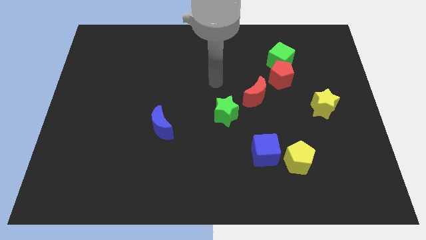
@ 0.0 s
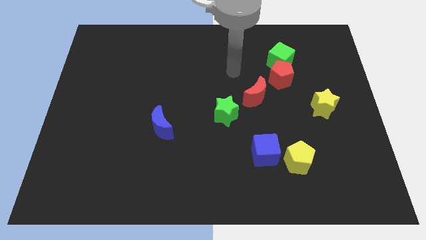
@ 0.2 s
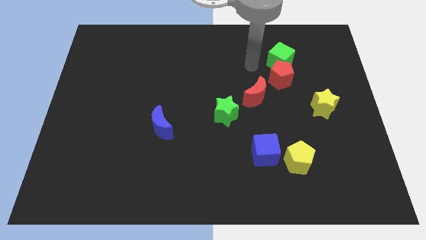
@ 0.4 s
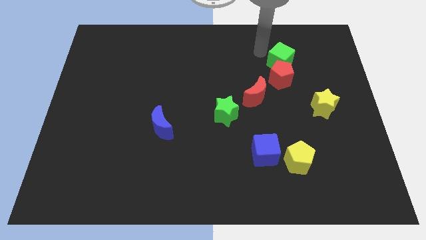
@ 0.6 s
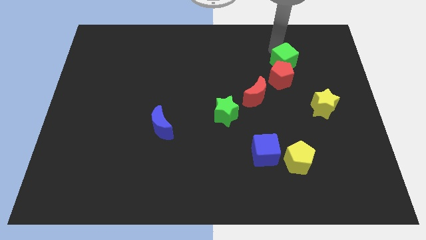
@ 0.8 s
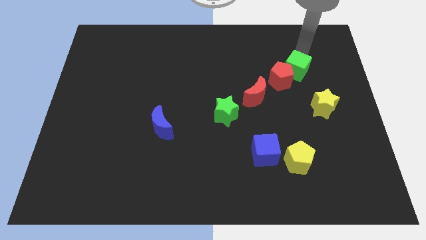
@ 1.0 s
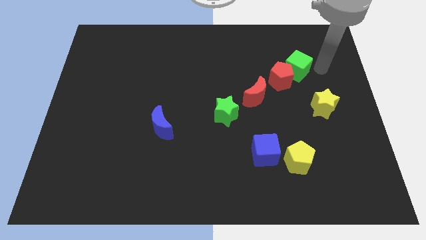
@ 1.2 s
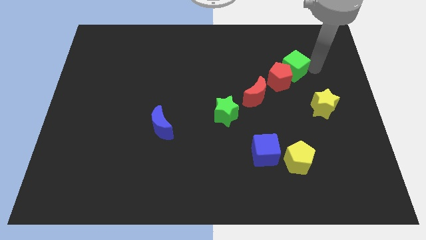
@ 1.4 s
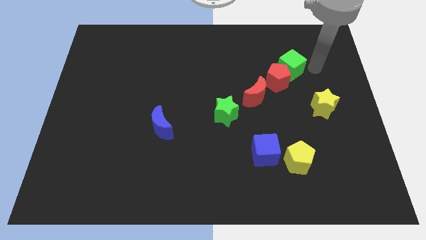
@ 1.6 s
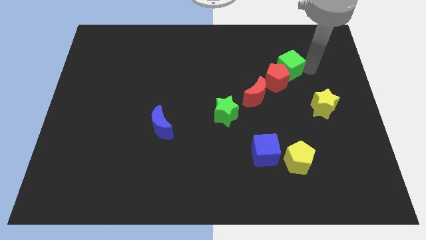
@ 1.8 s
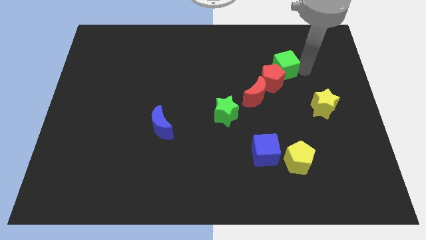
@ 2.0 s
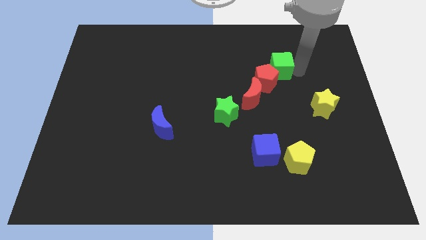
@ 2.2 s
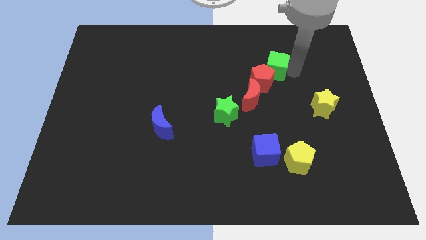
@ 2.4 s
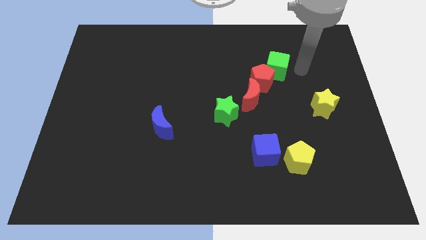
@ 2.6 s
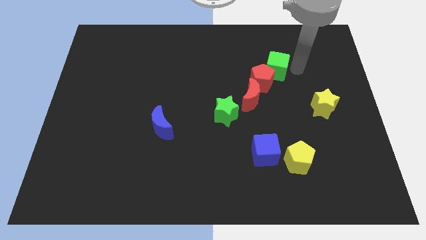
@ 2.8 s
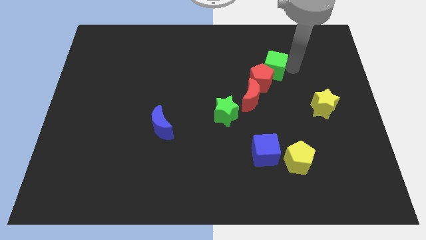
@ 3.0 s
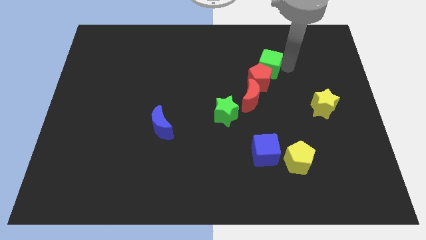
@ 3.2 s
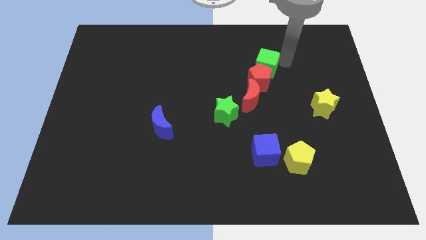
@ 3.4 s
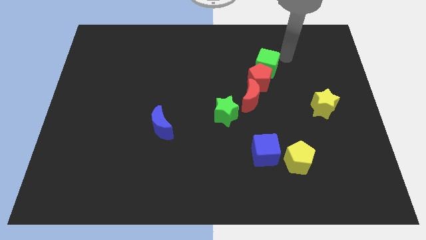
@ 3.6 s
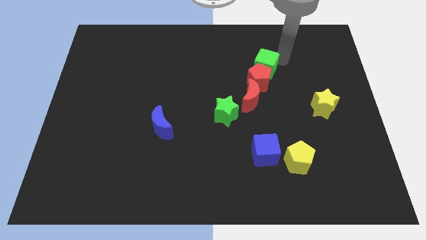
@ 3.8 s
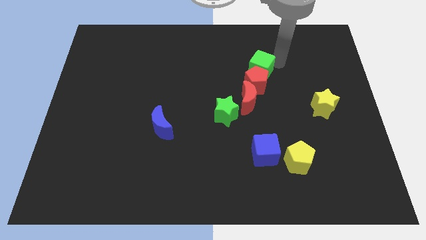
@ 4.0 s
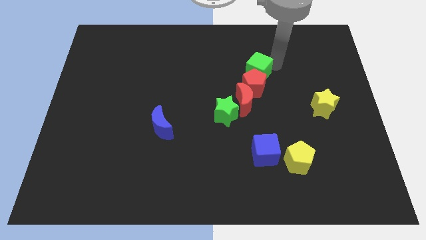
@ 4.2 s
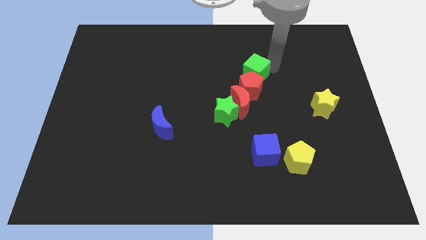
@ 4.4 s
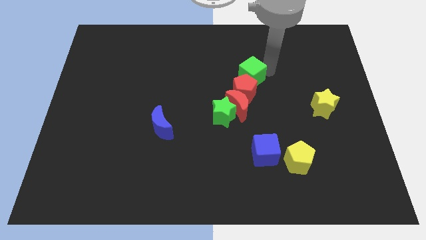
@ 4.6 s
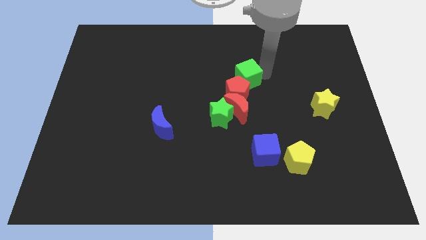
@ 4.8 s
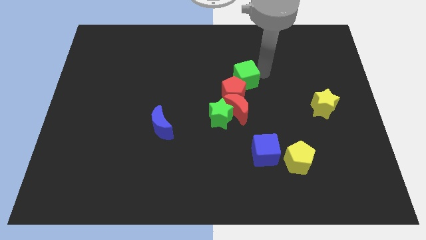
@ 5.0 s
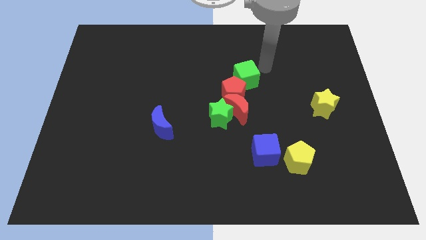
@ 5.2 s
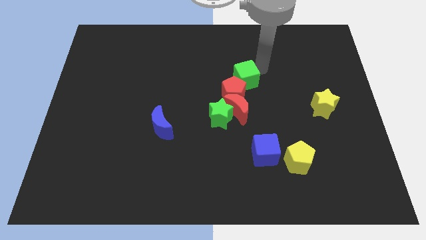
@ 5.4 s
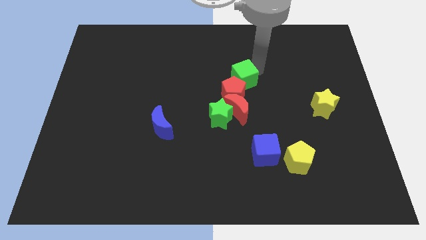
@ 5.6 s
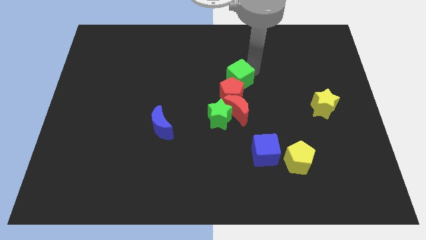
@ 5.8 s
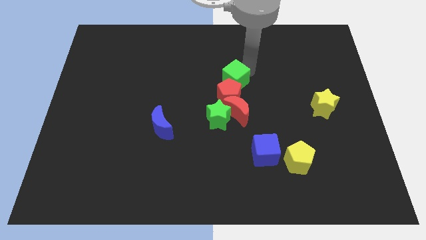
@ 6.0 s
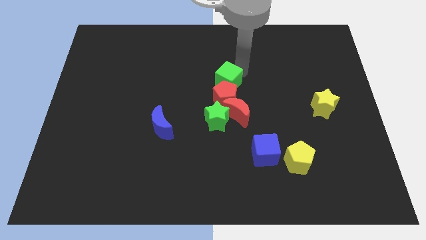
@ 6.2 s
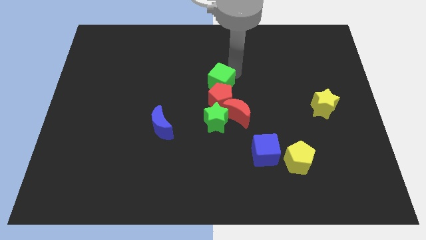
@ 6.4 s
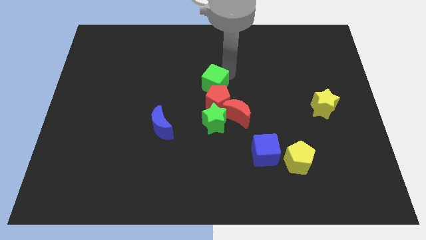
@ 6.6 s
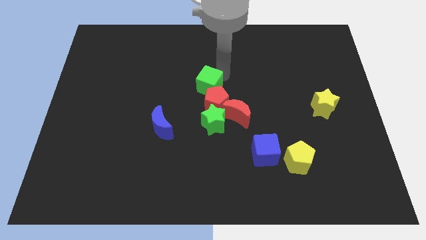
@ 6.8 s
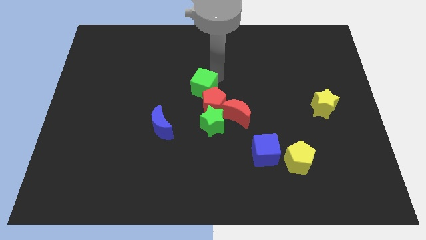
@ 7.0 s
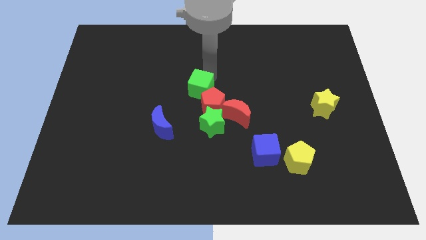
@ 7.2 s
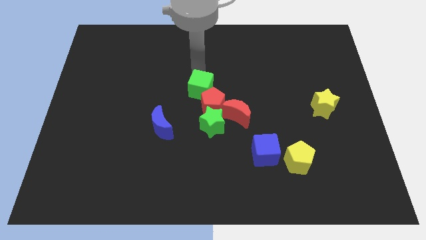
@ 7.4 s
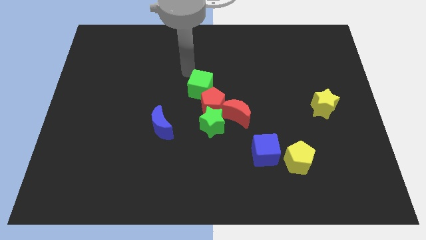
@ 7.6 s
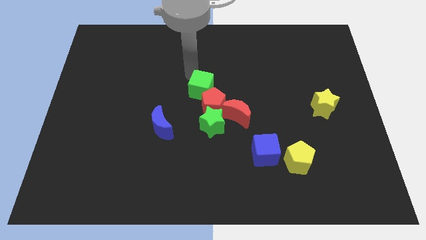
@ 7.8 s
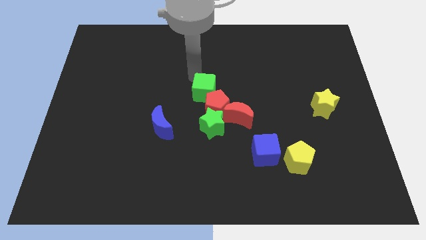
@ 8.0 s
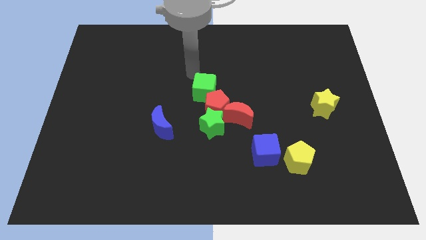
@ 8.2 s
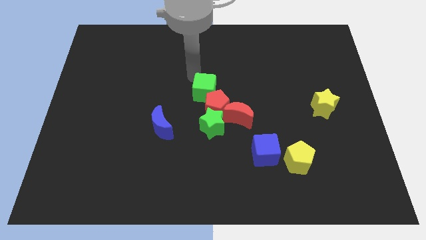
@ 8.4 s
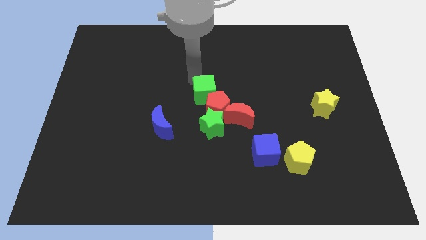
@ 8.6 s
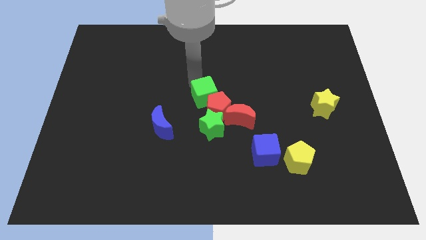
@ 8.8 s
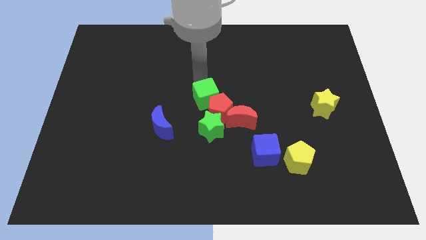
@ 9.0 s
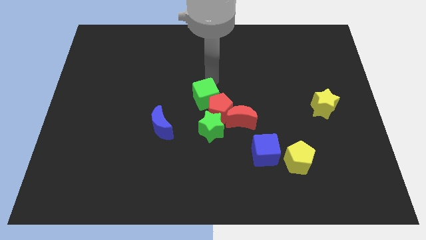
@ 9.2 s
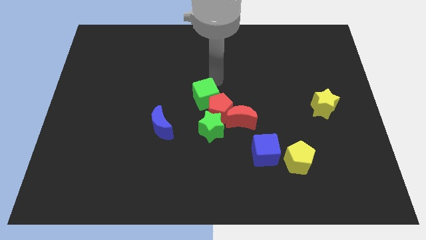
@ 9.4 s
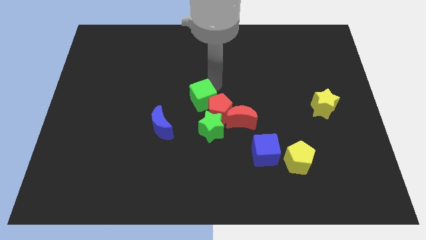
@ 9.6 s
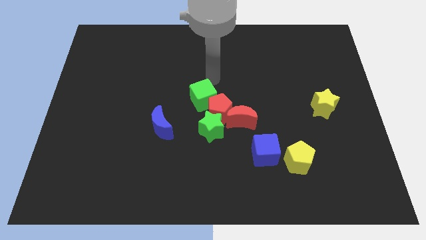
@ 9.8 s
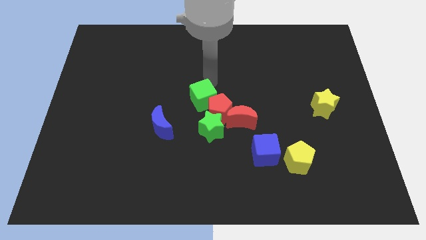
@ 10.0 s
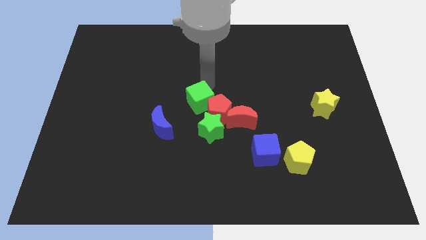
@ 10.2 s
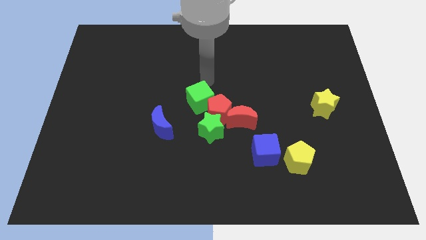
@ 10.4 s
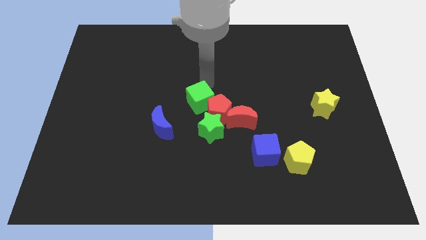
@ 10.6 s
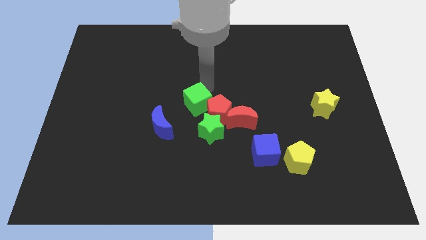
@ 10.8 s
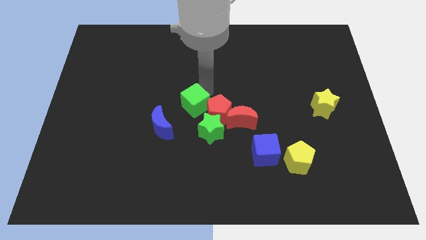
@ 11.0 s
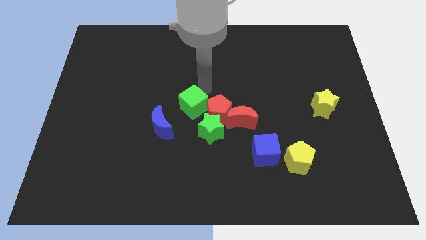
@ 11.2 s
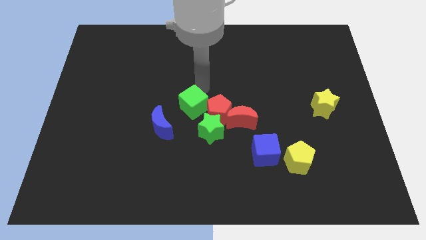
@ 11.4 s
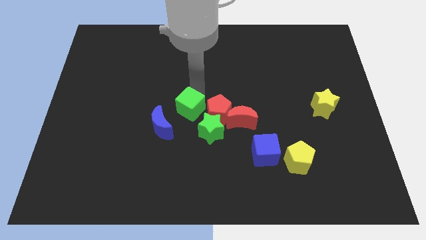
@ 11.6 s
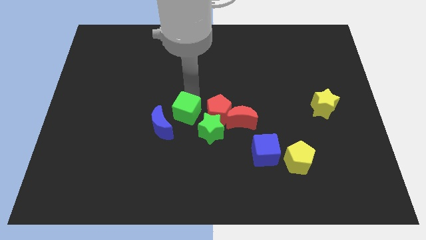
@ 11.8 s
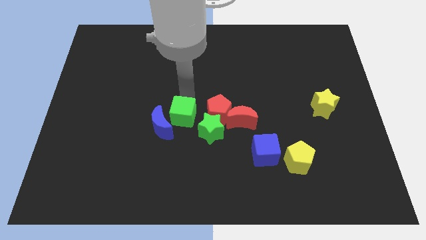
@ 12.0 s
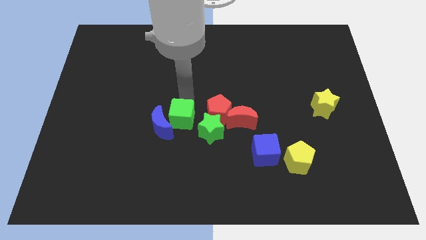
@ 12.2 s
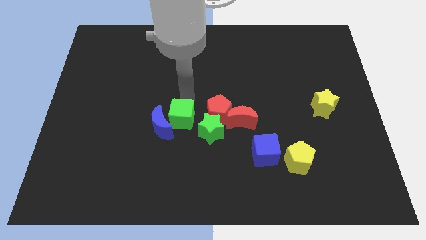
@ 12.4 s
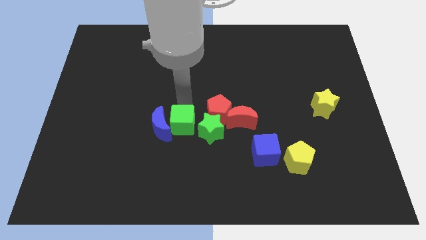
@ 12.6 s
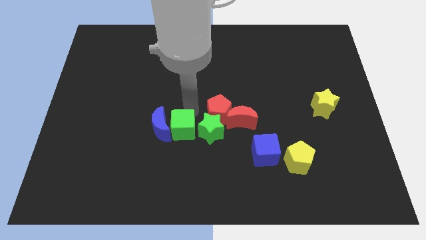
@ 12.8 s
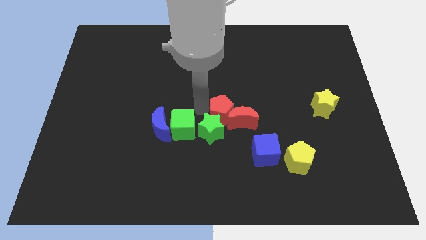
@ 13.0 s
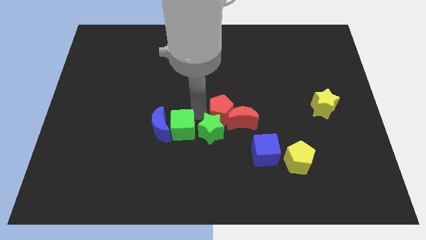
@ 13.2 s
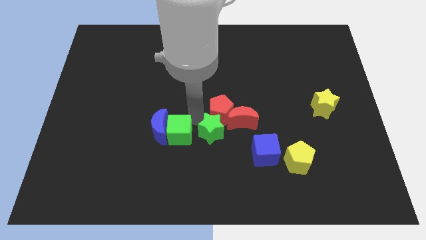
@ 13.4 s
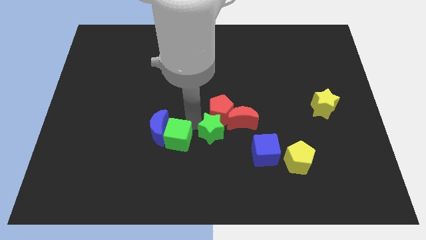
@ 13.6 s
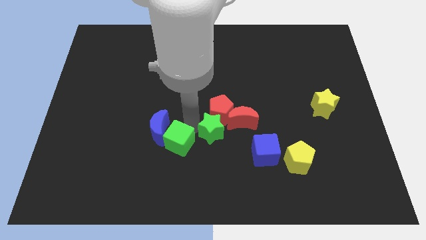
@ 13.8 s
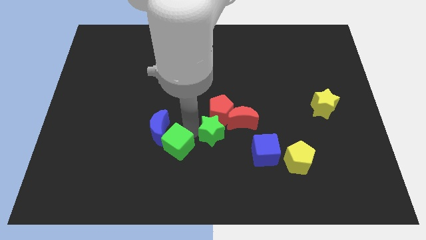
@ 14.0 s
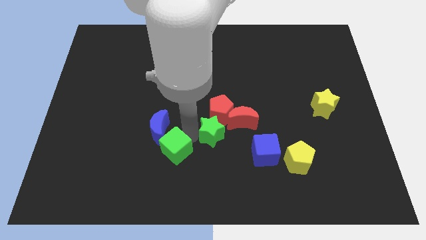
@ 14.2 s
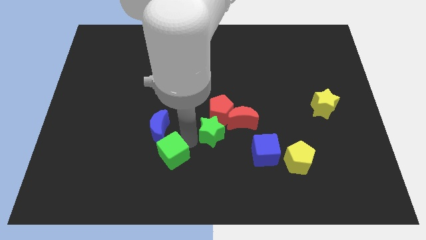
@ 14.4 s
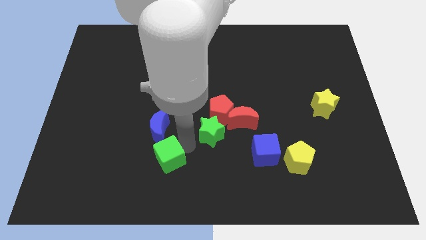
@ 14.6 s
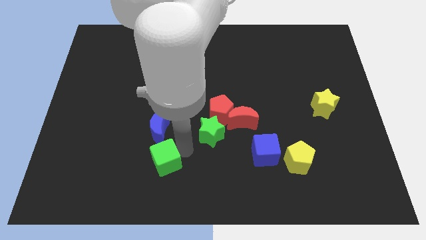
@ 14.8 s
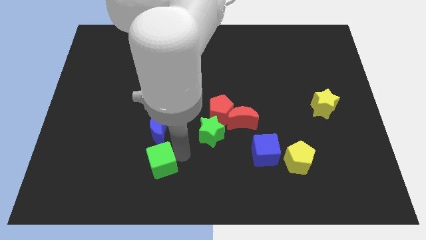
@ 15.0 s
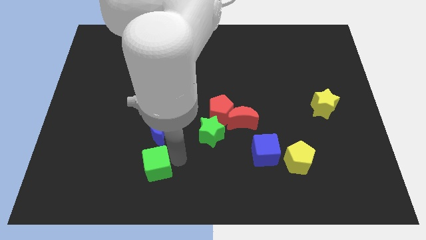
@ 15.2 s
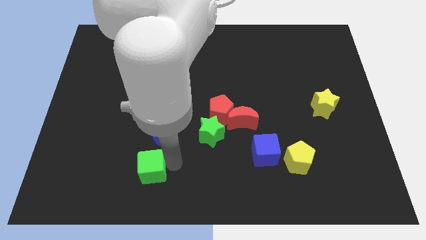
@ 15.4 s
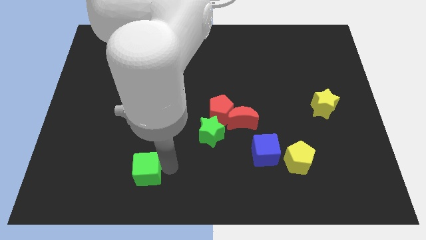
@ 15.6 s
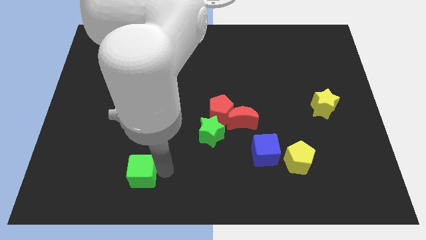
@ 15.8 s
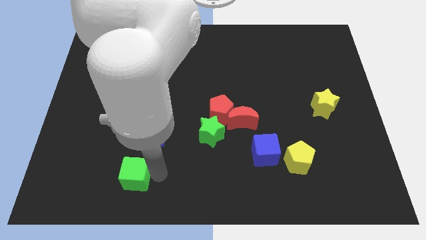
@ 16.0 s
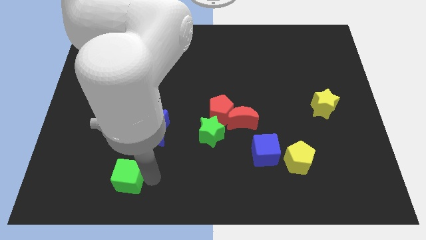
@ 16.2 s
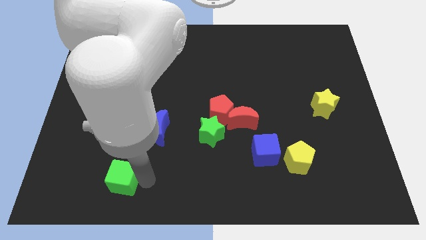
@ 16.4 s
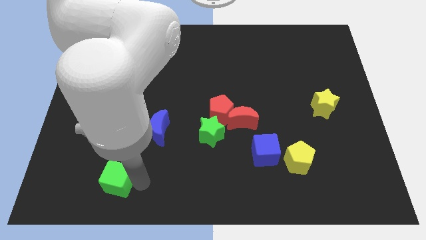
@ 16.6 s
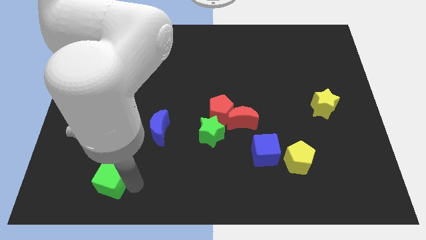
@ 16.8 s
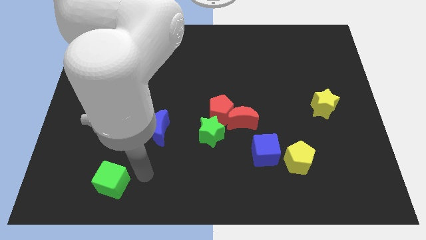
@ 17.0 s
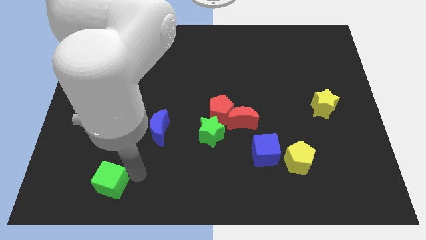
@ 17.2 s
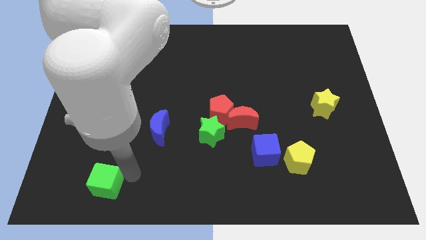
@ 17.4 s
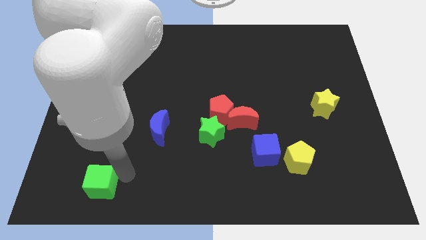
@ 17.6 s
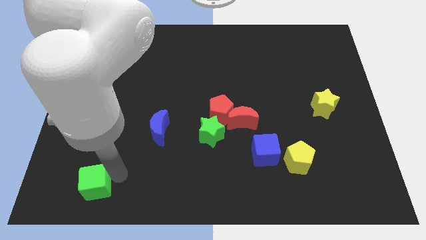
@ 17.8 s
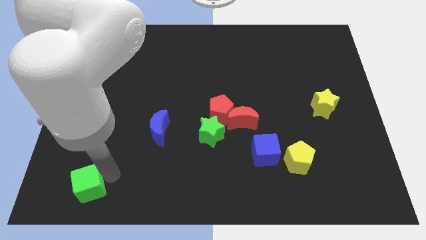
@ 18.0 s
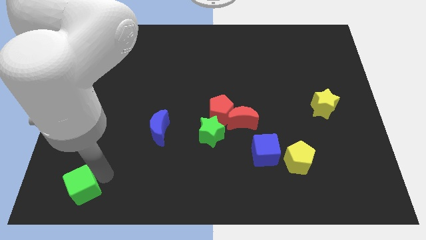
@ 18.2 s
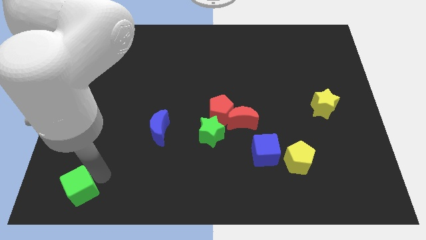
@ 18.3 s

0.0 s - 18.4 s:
move the green cube to the bottom left of the board
